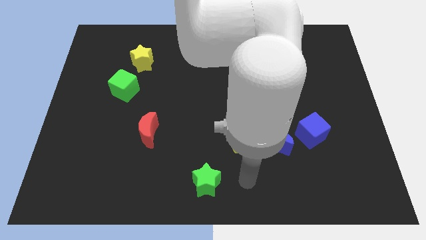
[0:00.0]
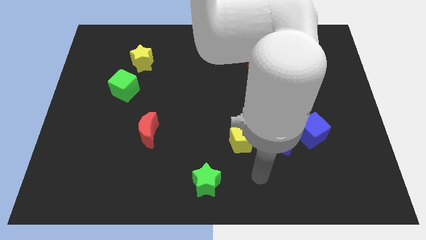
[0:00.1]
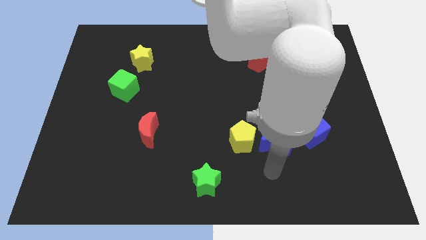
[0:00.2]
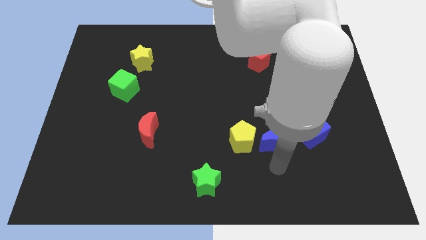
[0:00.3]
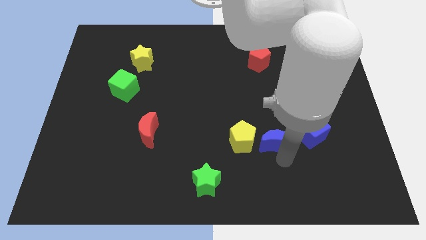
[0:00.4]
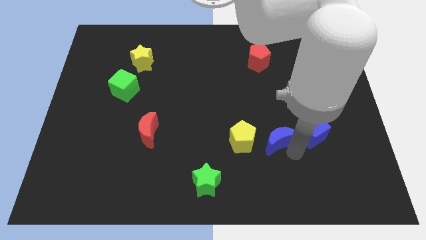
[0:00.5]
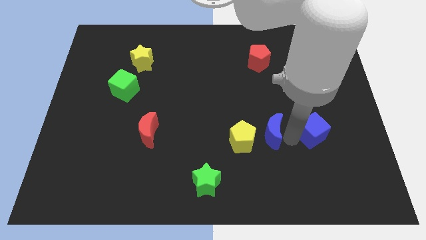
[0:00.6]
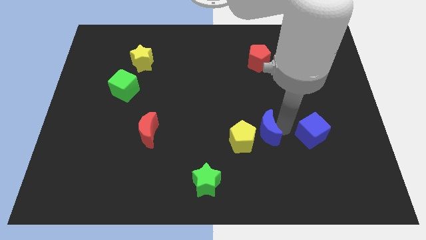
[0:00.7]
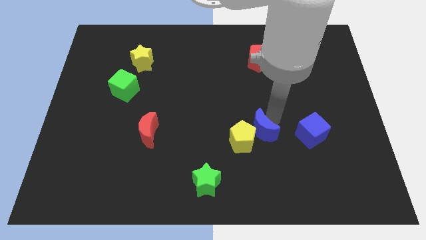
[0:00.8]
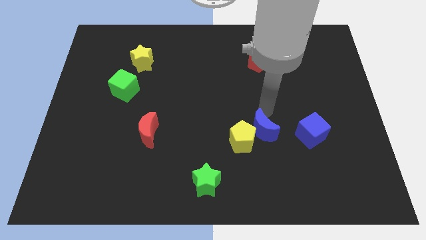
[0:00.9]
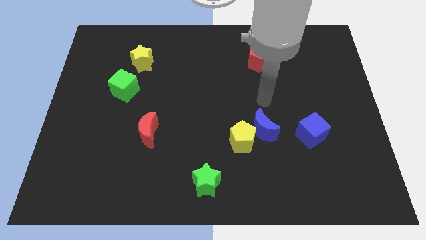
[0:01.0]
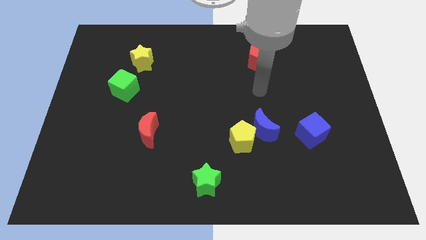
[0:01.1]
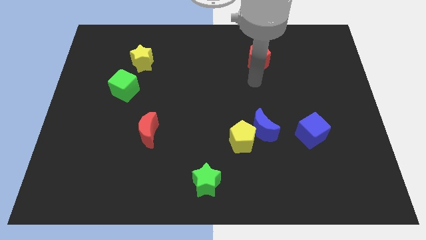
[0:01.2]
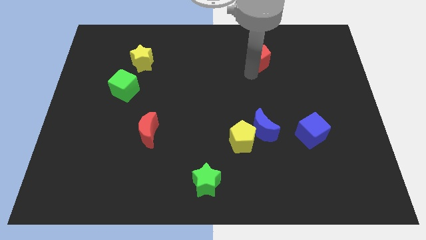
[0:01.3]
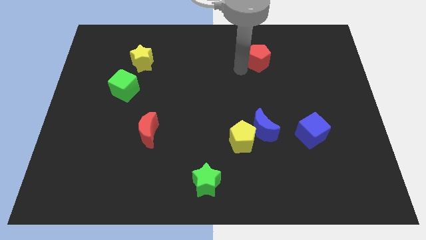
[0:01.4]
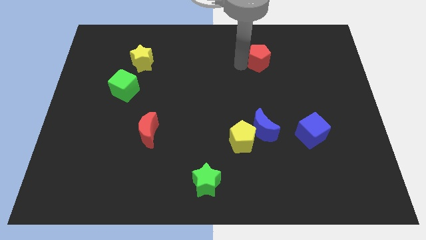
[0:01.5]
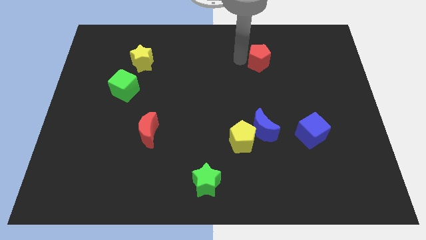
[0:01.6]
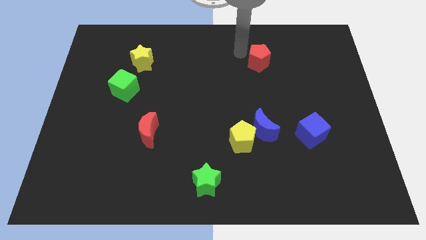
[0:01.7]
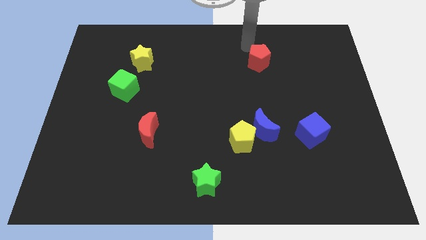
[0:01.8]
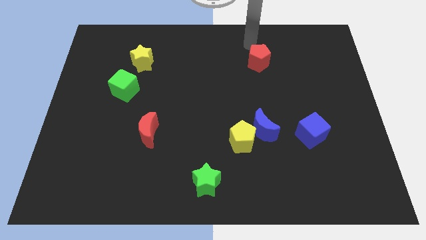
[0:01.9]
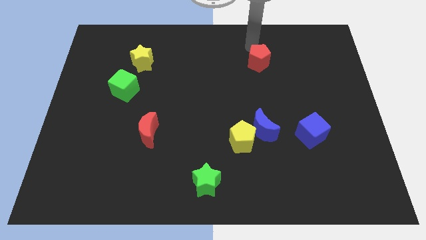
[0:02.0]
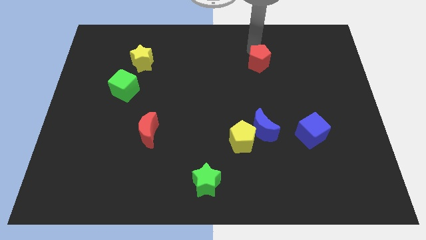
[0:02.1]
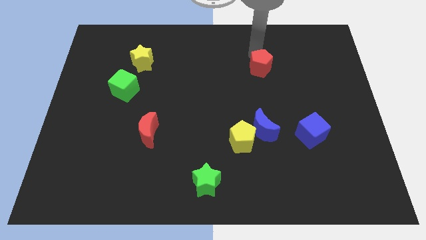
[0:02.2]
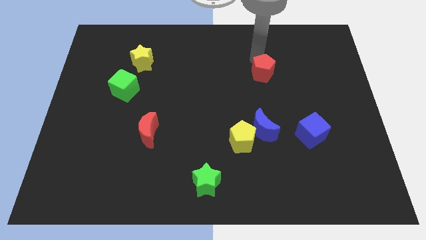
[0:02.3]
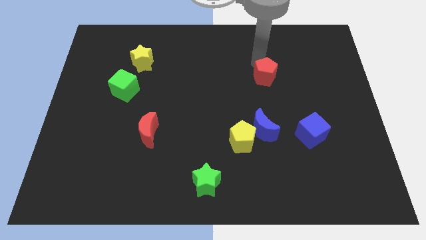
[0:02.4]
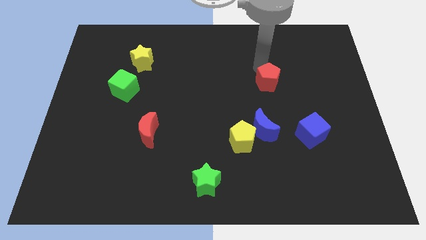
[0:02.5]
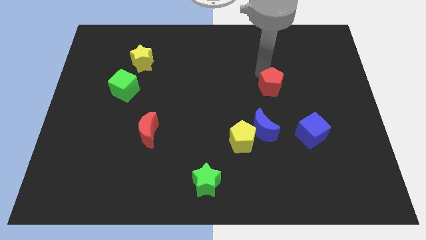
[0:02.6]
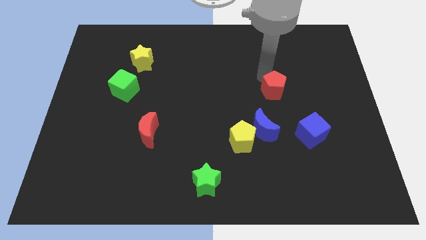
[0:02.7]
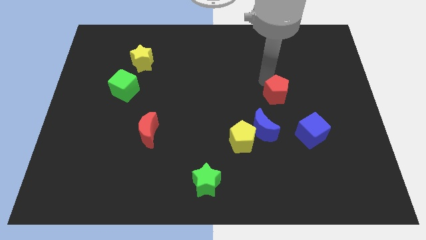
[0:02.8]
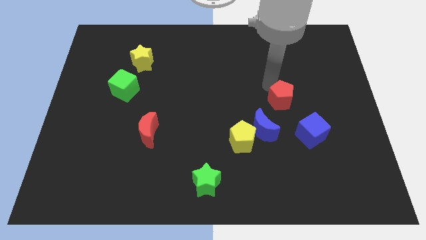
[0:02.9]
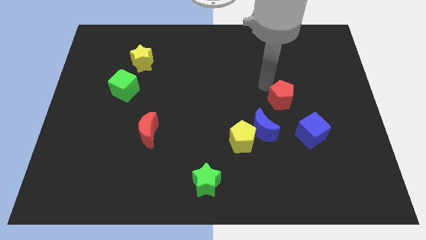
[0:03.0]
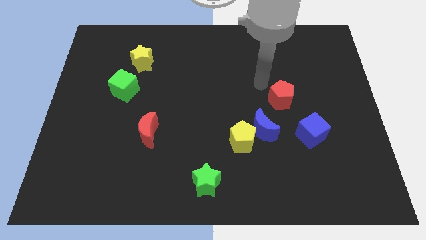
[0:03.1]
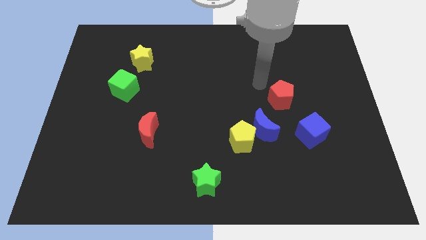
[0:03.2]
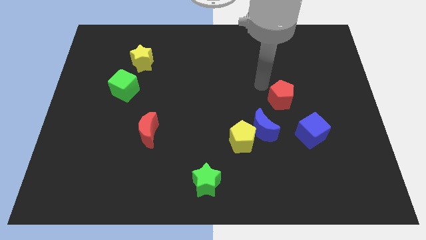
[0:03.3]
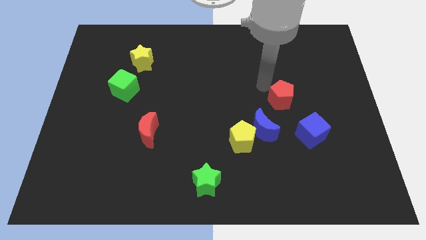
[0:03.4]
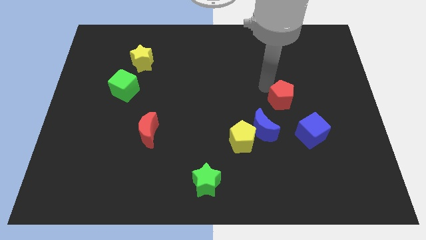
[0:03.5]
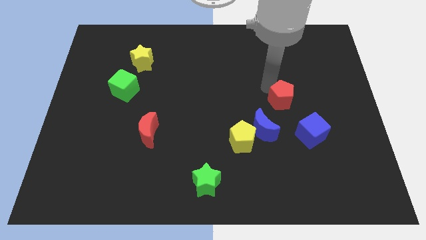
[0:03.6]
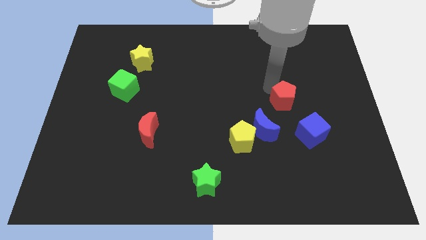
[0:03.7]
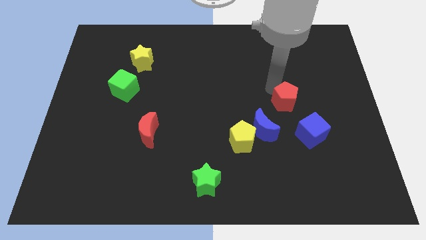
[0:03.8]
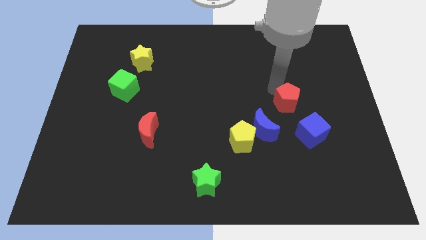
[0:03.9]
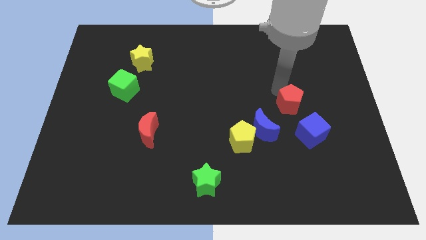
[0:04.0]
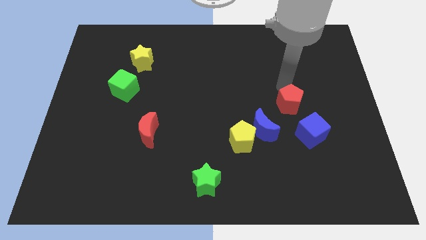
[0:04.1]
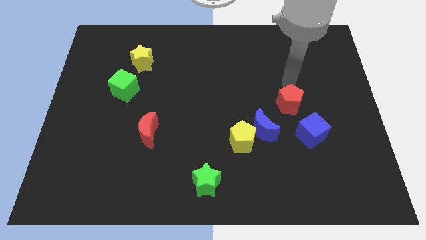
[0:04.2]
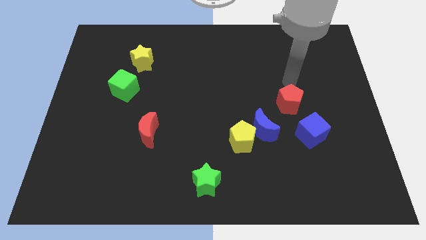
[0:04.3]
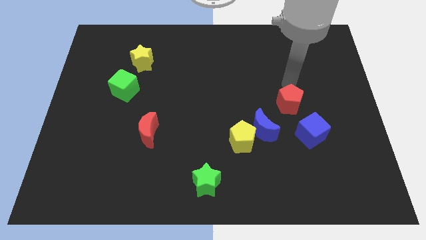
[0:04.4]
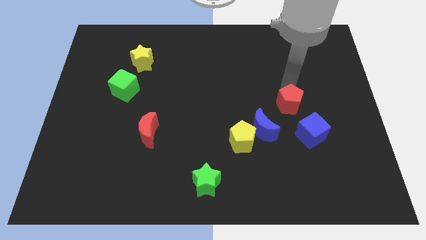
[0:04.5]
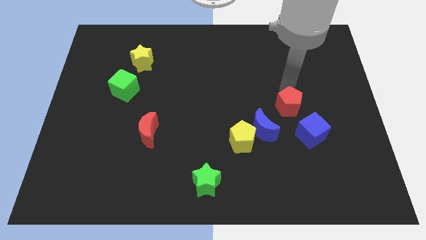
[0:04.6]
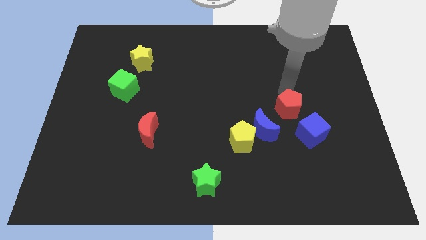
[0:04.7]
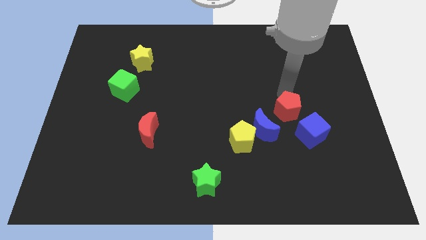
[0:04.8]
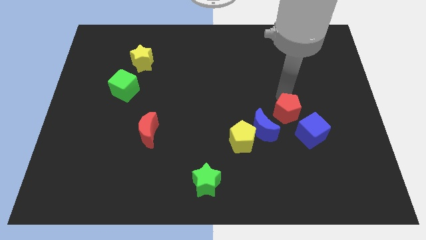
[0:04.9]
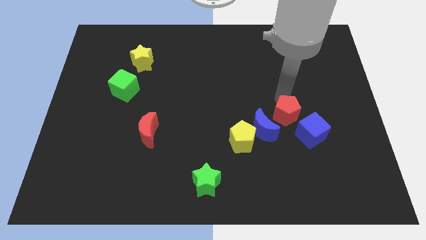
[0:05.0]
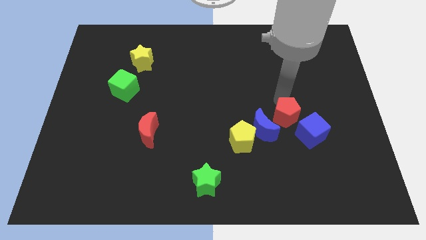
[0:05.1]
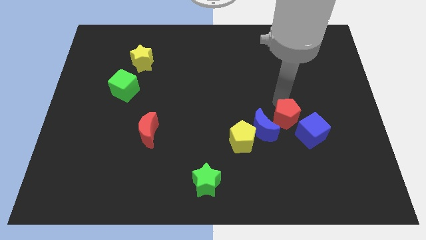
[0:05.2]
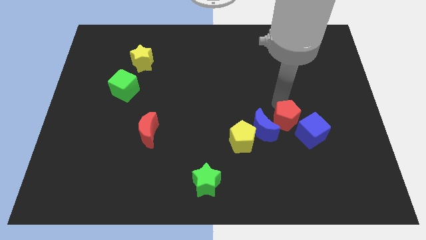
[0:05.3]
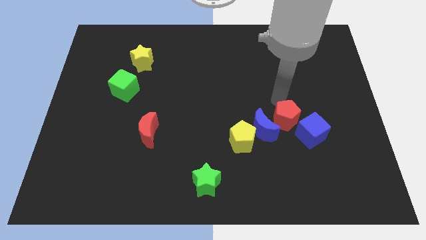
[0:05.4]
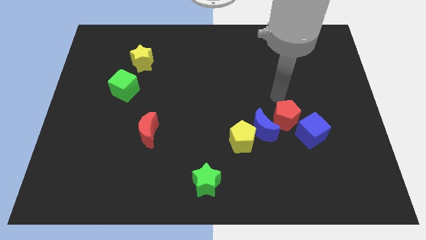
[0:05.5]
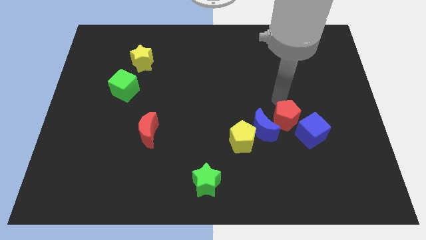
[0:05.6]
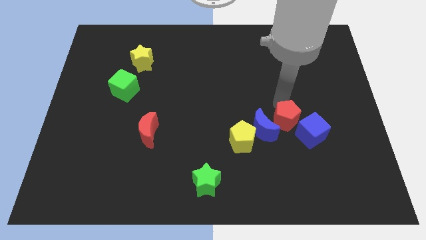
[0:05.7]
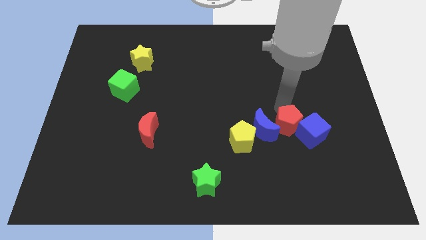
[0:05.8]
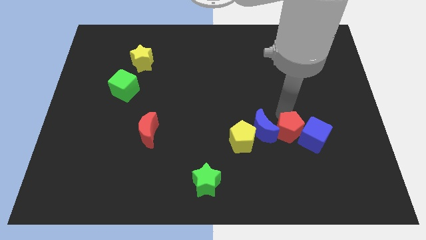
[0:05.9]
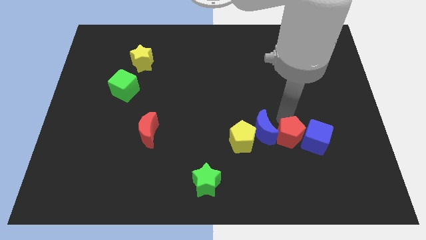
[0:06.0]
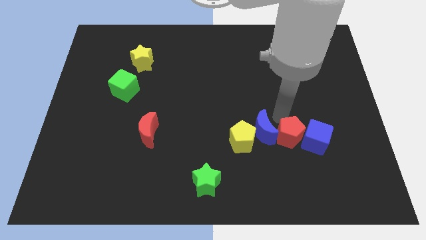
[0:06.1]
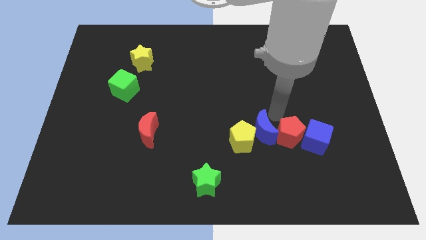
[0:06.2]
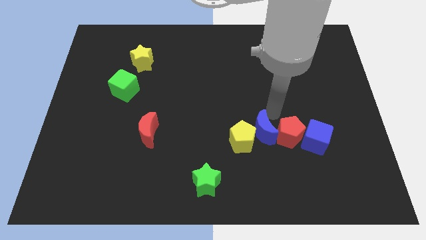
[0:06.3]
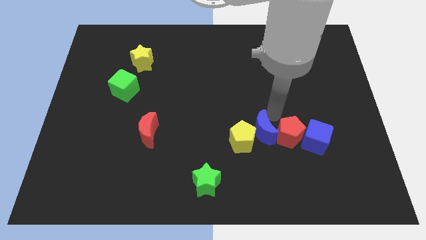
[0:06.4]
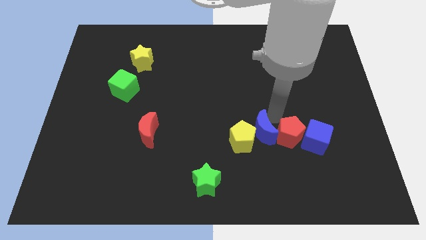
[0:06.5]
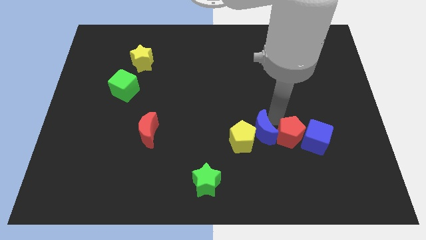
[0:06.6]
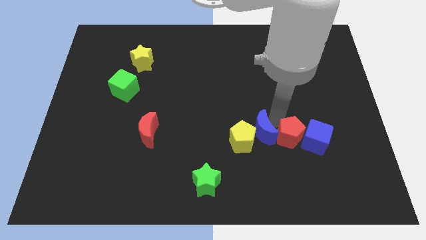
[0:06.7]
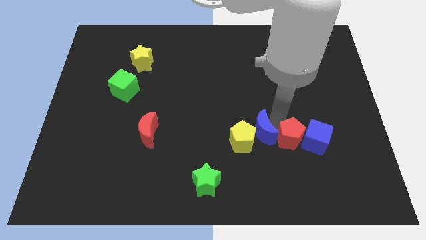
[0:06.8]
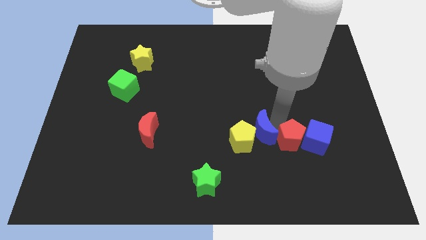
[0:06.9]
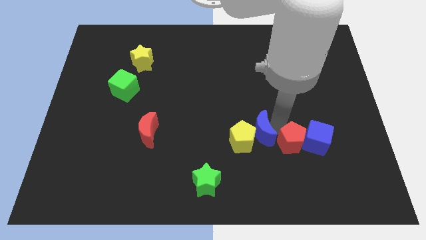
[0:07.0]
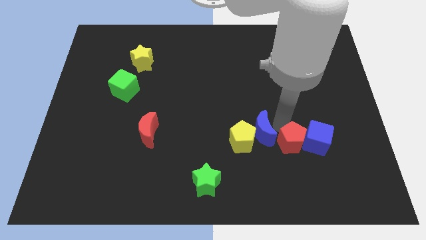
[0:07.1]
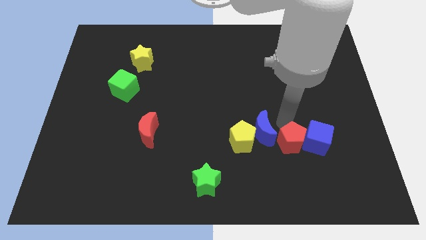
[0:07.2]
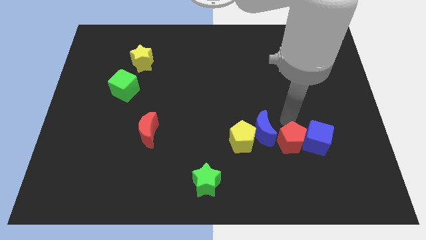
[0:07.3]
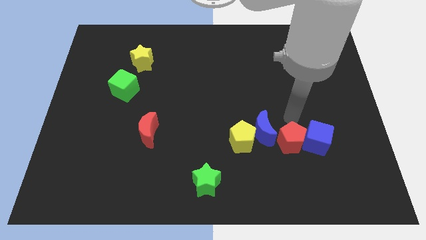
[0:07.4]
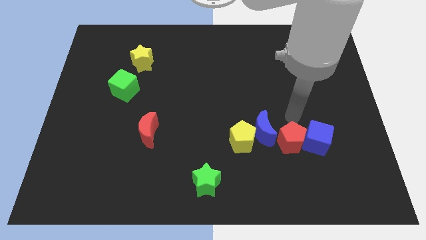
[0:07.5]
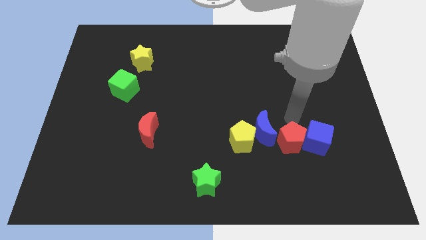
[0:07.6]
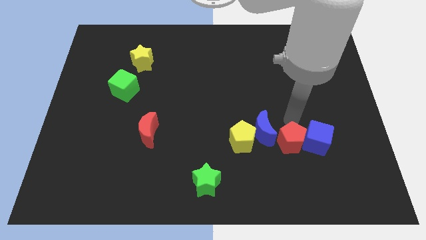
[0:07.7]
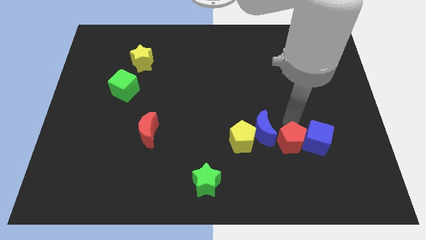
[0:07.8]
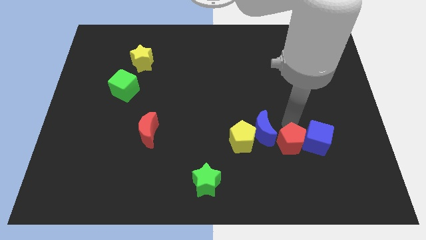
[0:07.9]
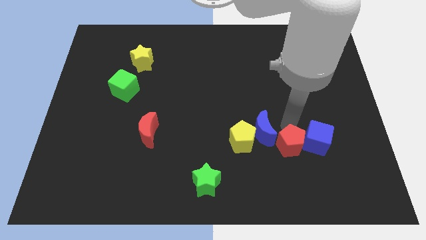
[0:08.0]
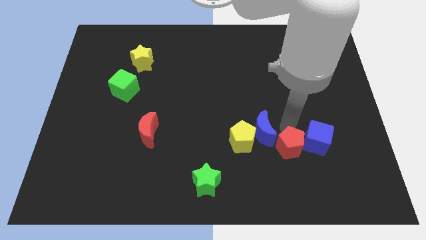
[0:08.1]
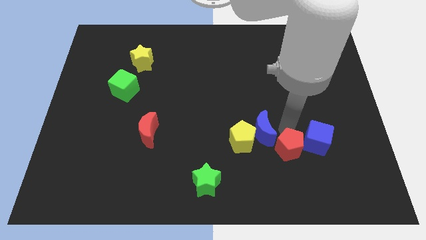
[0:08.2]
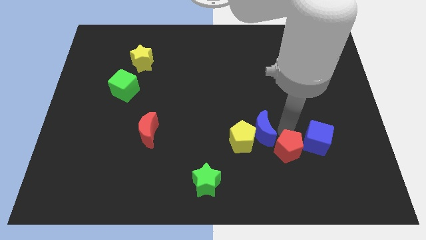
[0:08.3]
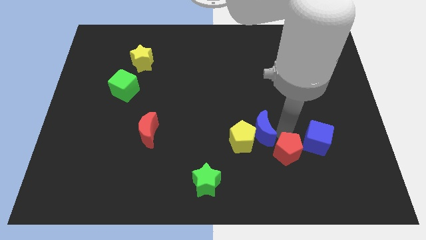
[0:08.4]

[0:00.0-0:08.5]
move the red pentagon to the bottom right side of the yellow pentagon
